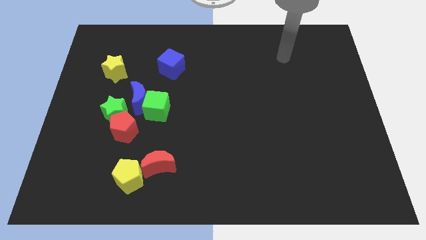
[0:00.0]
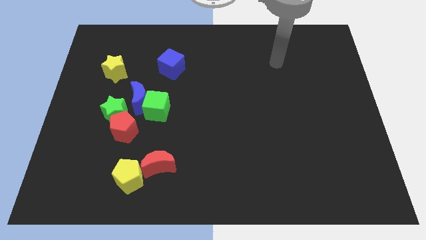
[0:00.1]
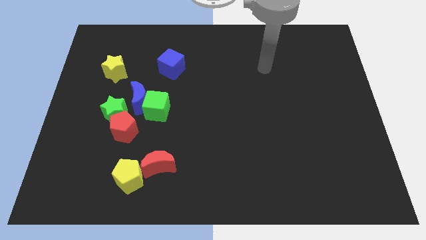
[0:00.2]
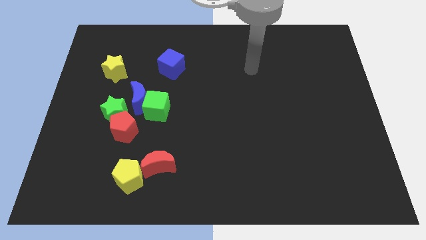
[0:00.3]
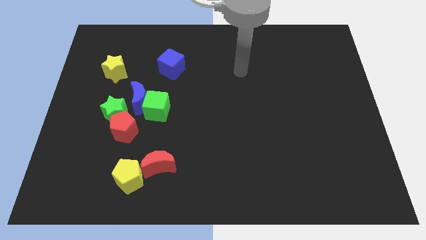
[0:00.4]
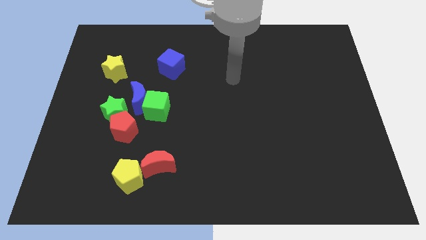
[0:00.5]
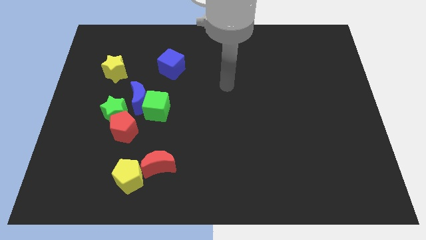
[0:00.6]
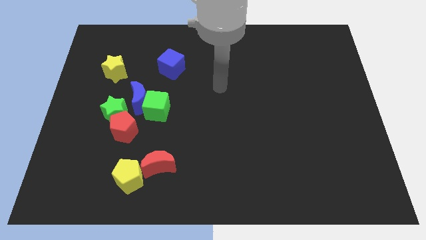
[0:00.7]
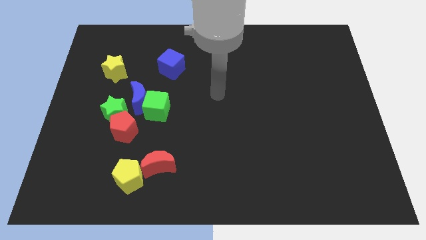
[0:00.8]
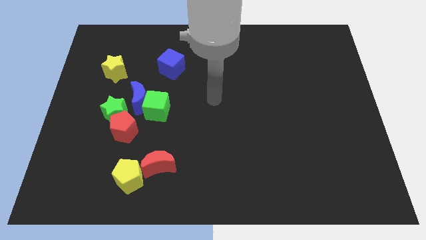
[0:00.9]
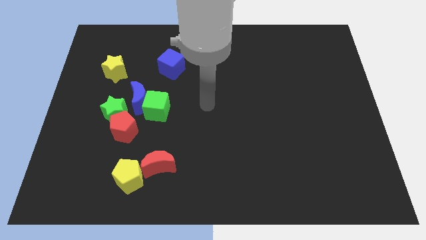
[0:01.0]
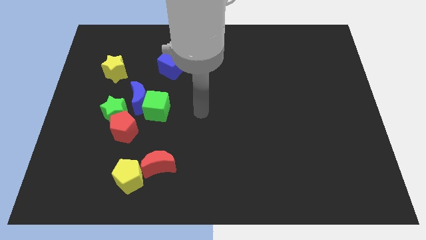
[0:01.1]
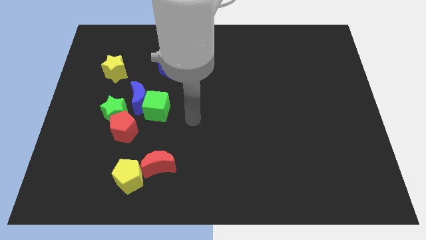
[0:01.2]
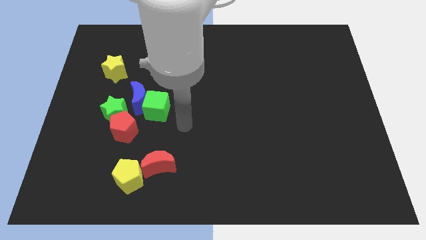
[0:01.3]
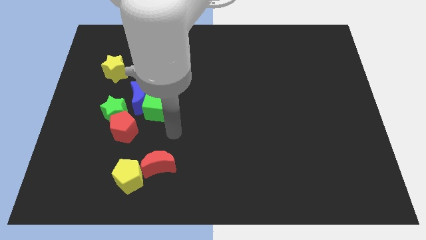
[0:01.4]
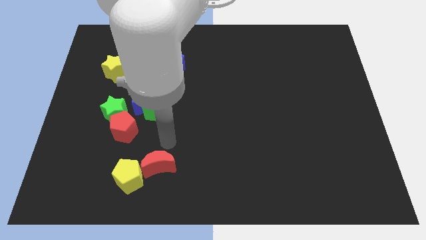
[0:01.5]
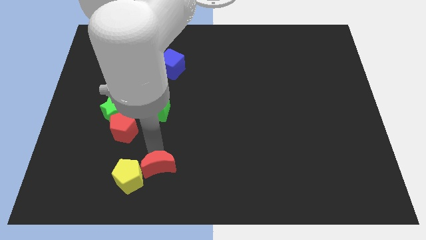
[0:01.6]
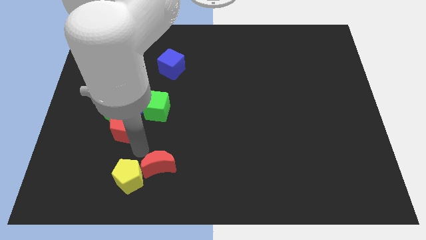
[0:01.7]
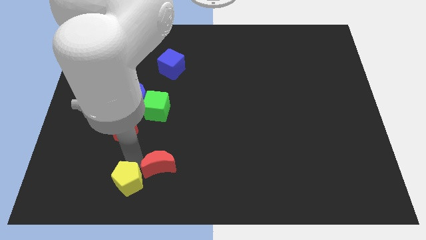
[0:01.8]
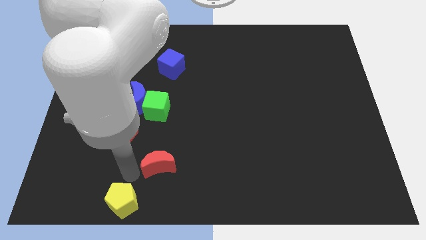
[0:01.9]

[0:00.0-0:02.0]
move the red moon away from the yellow pentagon

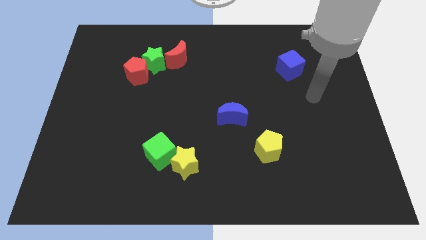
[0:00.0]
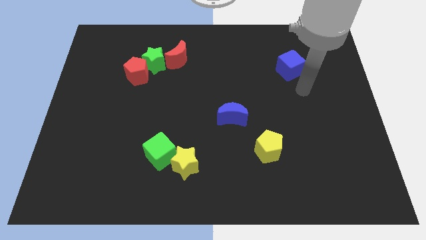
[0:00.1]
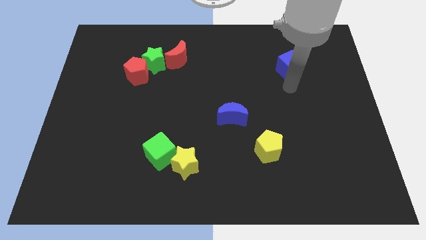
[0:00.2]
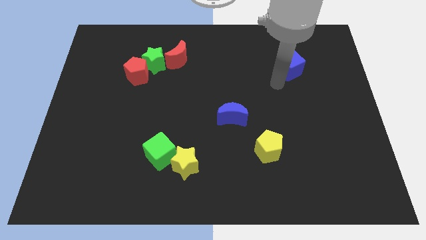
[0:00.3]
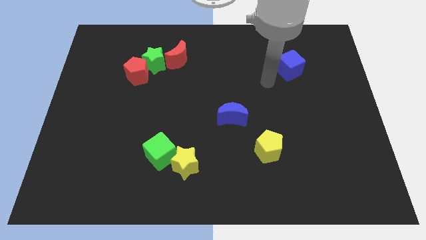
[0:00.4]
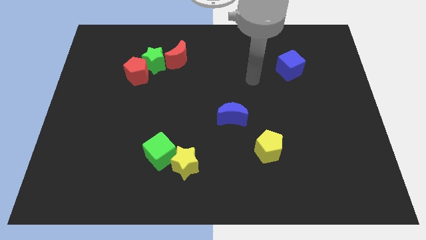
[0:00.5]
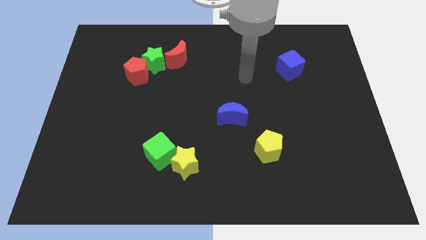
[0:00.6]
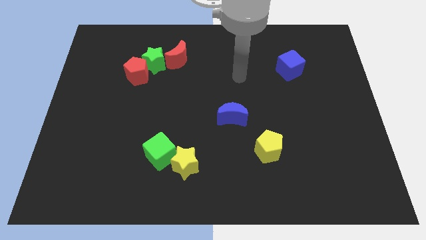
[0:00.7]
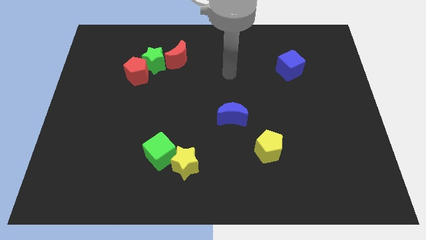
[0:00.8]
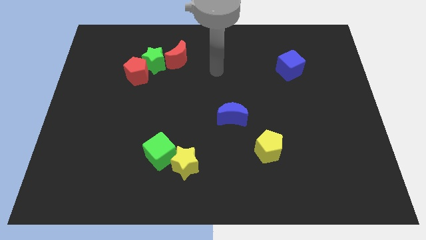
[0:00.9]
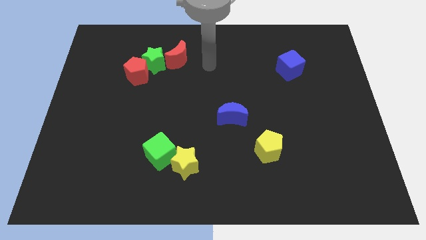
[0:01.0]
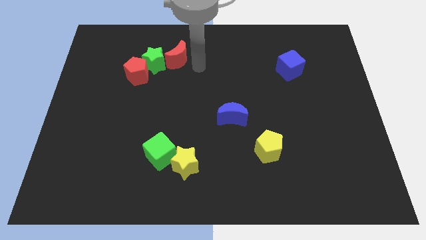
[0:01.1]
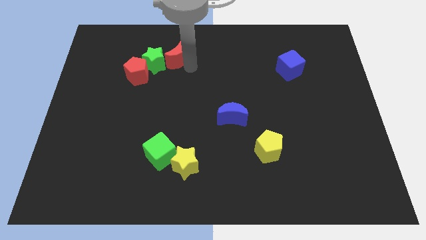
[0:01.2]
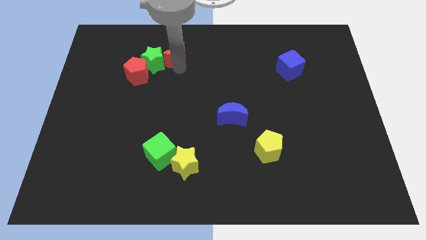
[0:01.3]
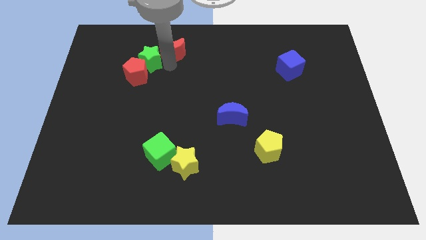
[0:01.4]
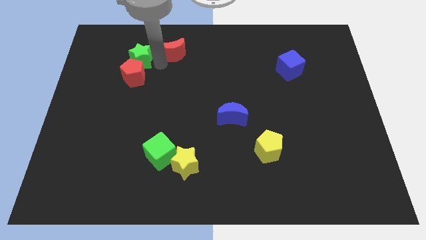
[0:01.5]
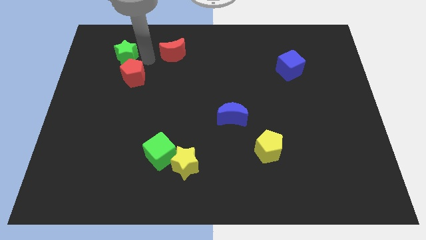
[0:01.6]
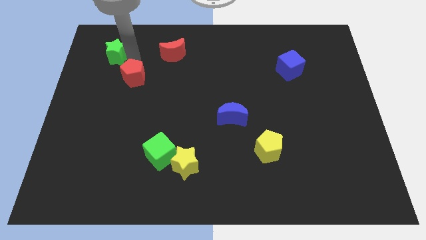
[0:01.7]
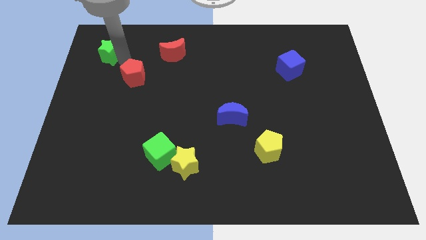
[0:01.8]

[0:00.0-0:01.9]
separate the red pentagon from the green star

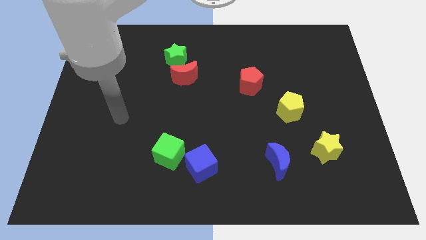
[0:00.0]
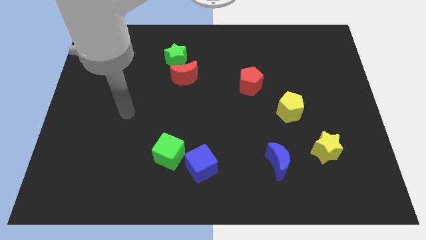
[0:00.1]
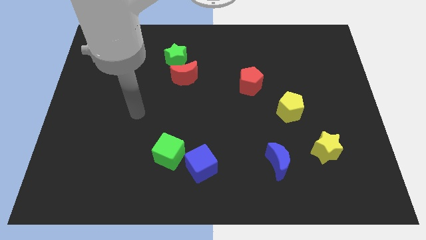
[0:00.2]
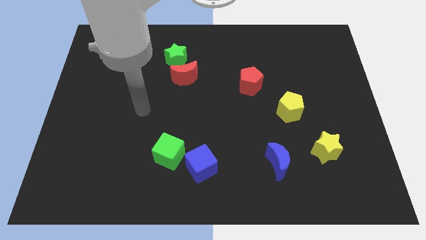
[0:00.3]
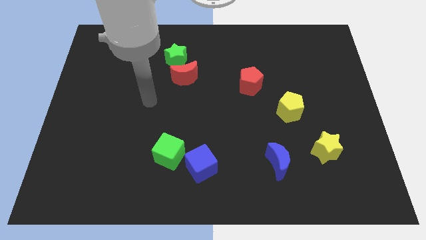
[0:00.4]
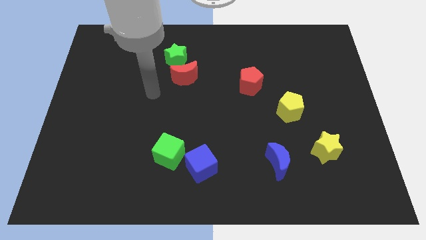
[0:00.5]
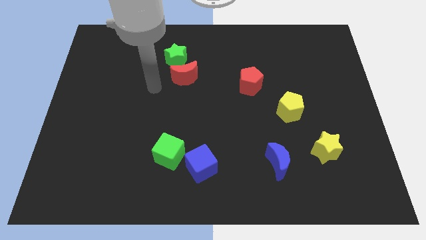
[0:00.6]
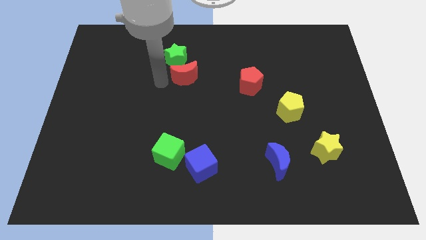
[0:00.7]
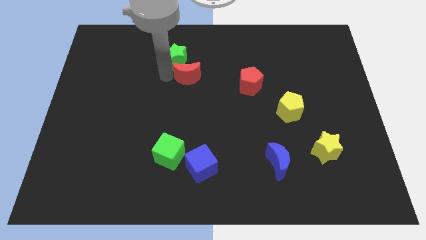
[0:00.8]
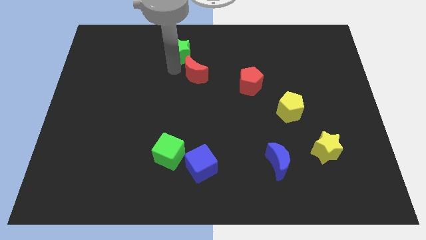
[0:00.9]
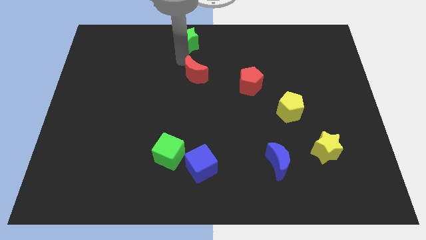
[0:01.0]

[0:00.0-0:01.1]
separate the red moon from the green star

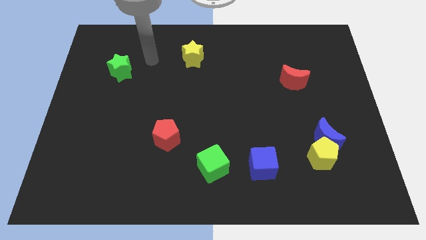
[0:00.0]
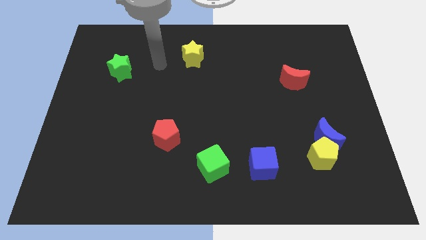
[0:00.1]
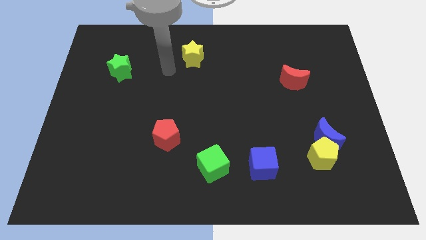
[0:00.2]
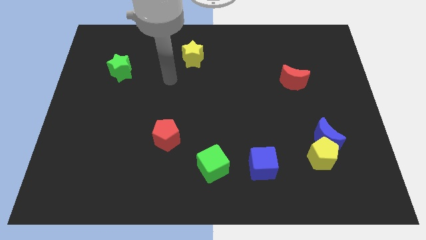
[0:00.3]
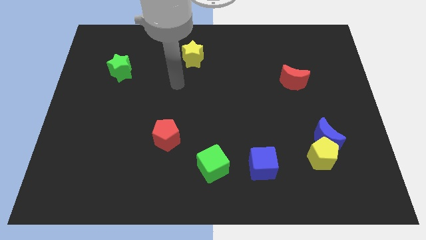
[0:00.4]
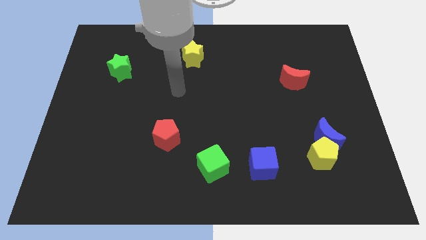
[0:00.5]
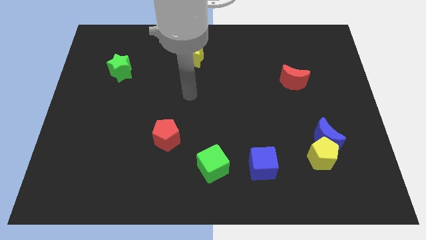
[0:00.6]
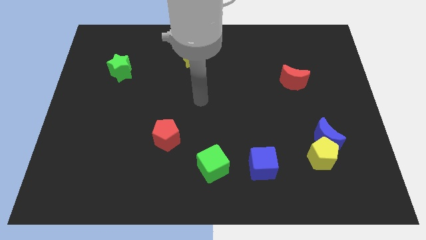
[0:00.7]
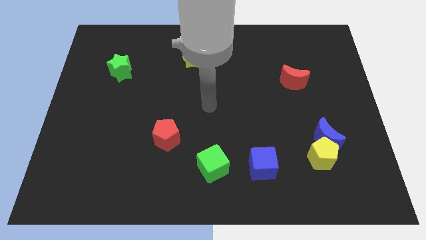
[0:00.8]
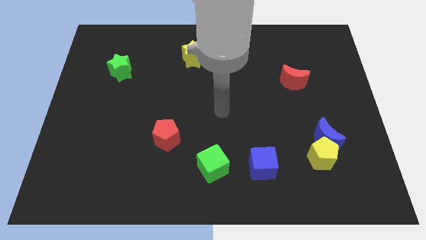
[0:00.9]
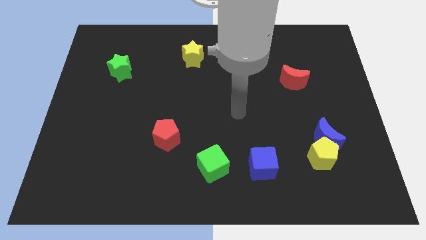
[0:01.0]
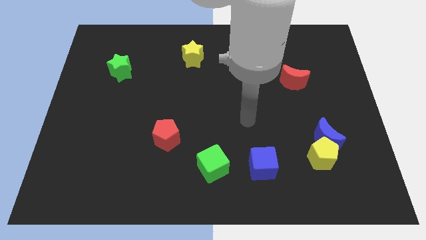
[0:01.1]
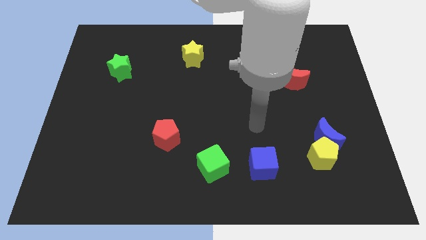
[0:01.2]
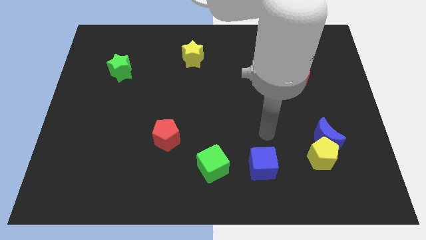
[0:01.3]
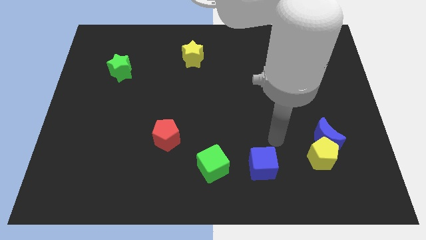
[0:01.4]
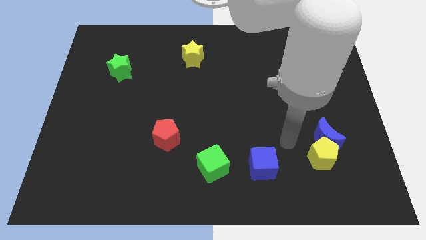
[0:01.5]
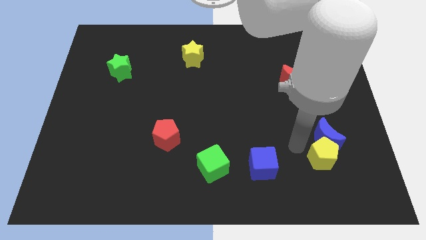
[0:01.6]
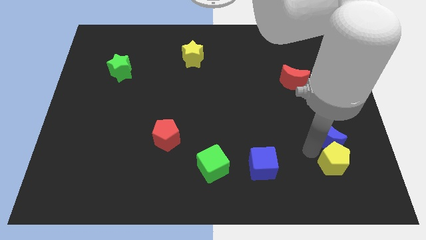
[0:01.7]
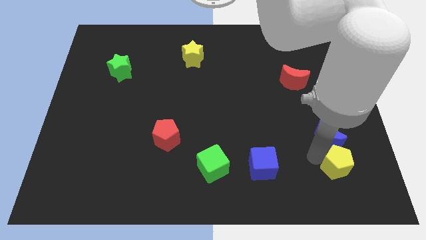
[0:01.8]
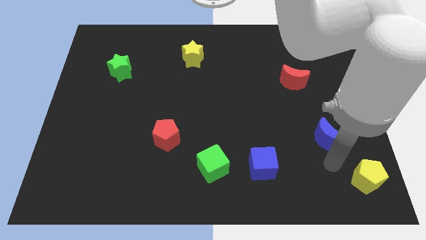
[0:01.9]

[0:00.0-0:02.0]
move the blue moon away from the yellow pentagon

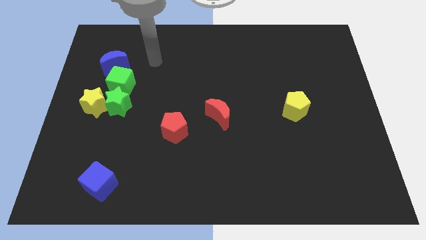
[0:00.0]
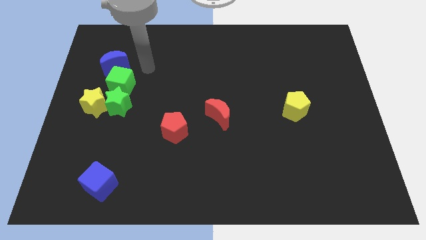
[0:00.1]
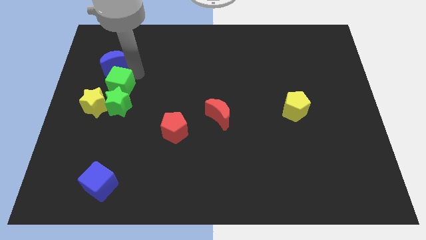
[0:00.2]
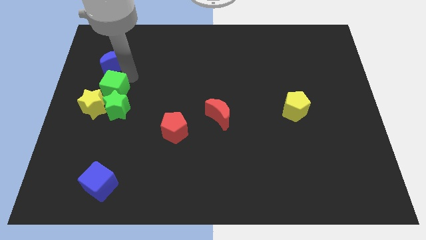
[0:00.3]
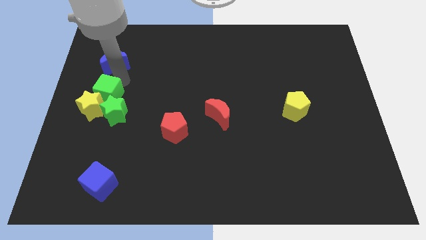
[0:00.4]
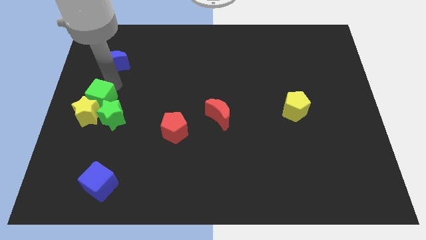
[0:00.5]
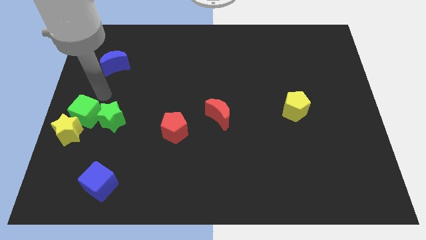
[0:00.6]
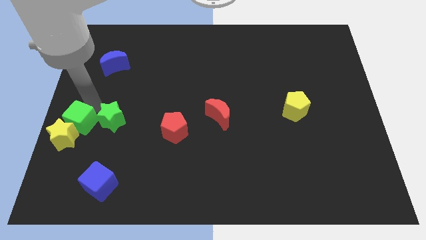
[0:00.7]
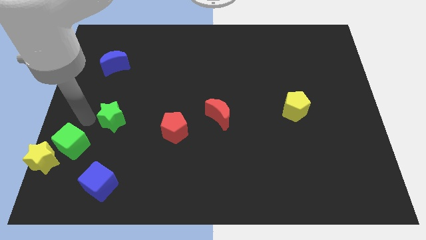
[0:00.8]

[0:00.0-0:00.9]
pull the green star apart from the yellow star and green cube

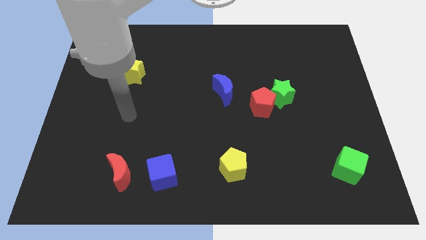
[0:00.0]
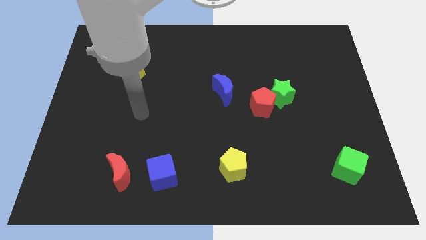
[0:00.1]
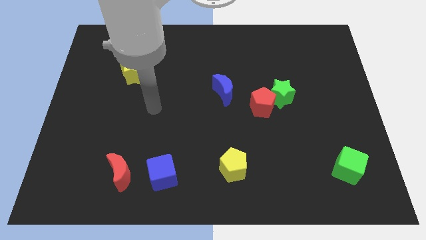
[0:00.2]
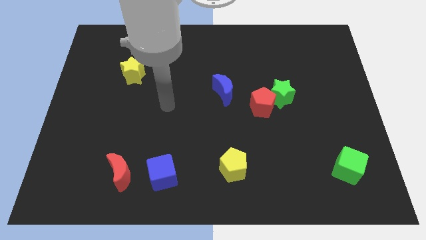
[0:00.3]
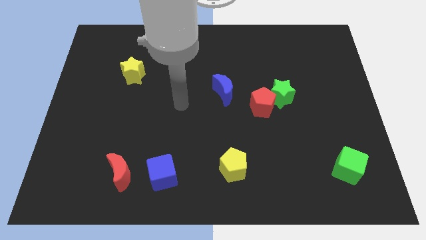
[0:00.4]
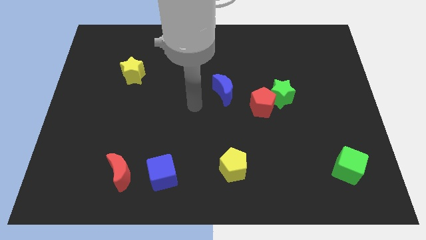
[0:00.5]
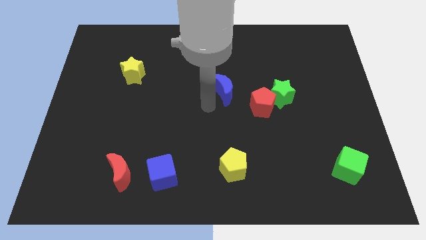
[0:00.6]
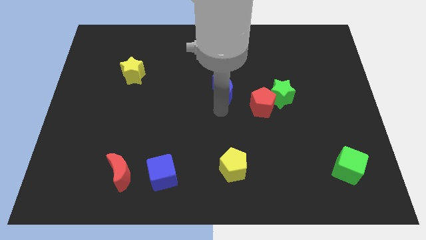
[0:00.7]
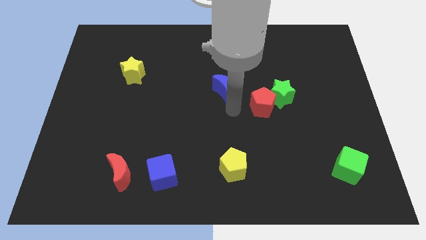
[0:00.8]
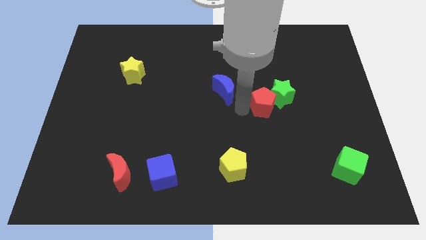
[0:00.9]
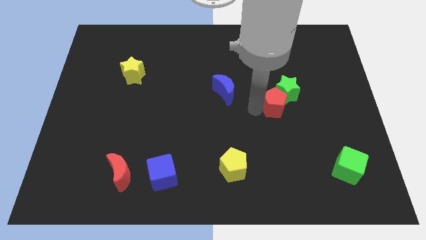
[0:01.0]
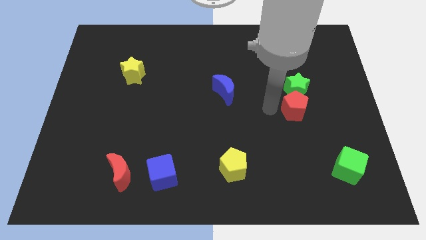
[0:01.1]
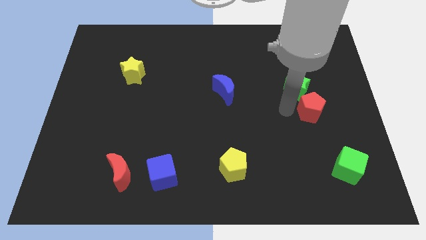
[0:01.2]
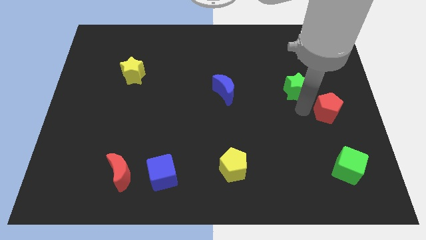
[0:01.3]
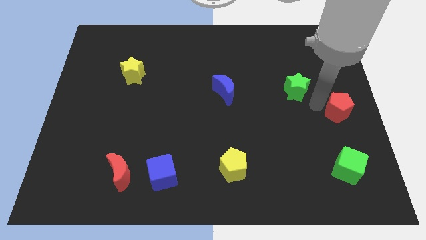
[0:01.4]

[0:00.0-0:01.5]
move the green star away from the red pentagon
